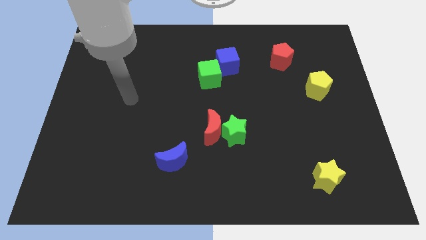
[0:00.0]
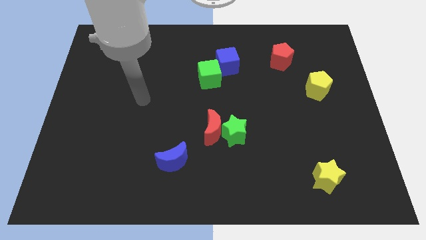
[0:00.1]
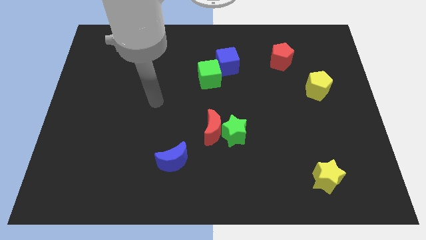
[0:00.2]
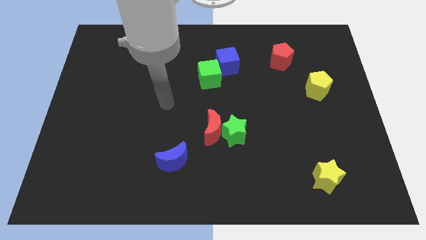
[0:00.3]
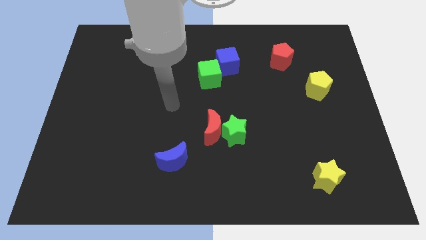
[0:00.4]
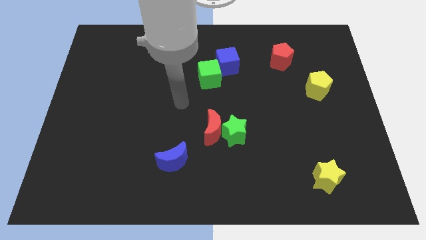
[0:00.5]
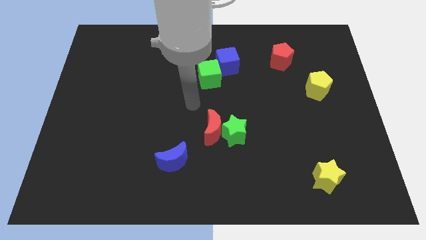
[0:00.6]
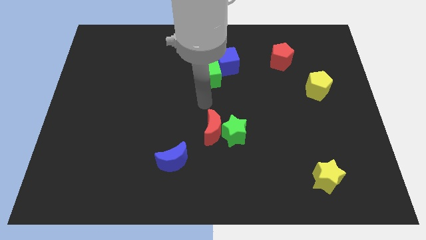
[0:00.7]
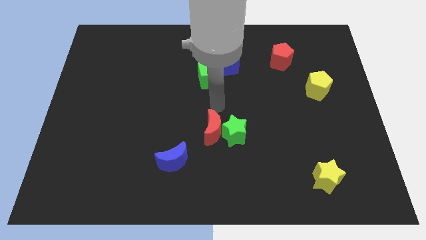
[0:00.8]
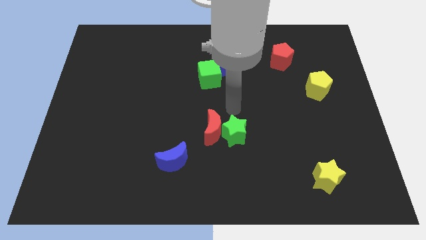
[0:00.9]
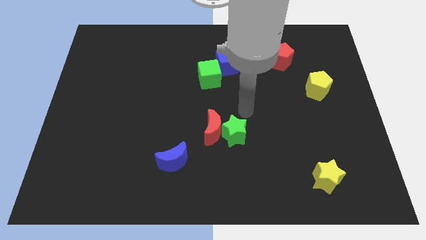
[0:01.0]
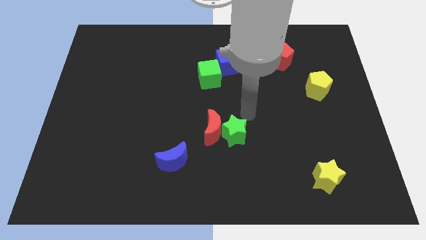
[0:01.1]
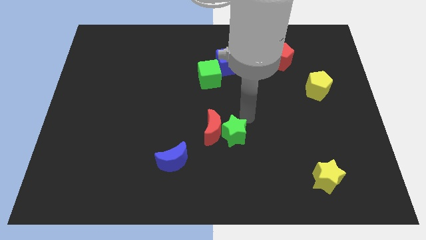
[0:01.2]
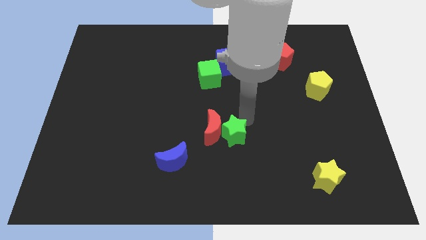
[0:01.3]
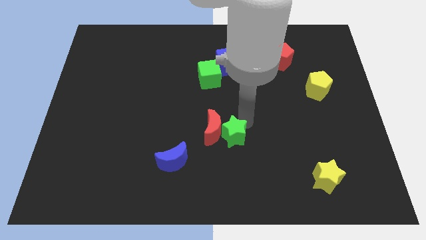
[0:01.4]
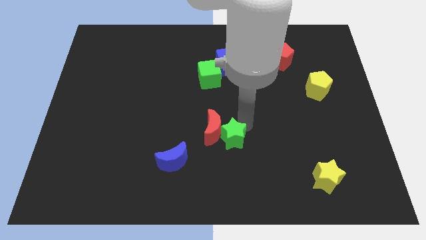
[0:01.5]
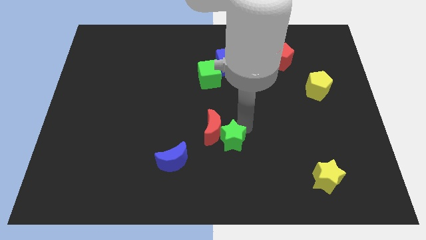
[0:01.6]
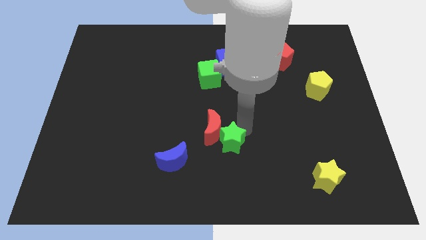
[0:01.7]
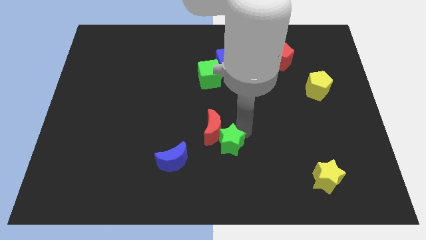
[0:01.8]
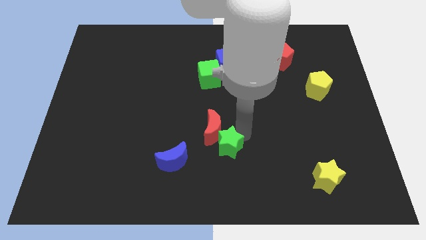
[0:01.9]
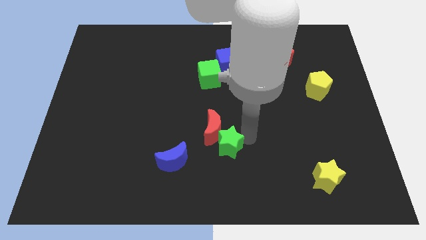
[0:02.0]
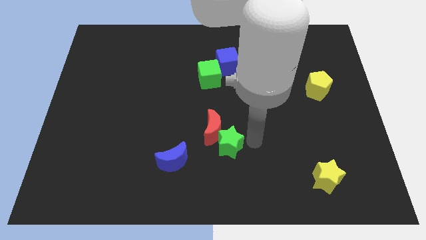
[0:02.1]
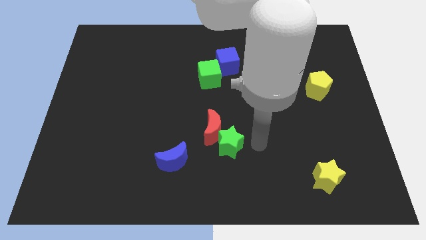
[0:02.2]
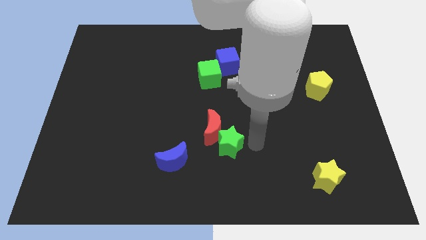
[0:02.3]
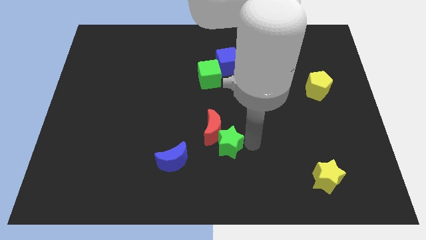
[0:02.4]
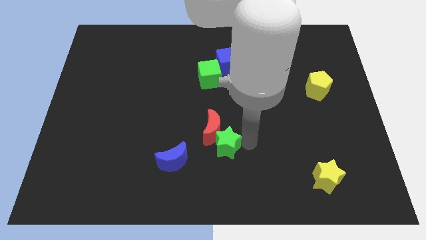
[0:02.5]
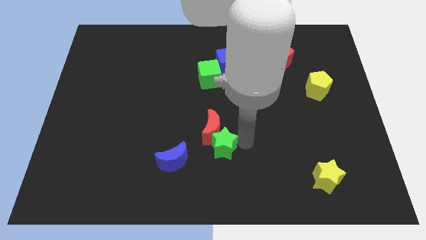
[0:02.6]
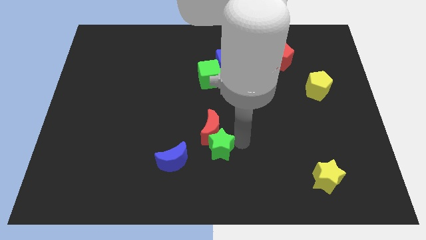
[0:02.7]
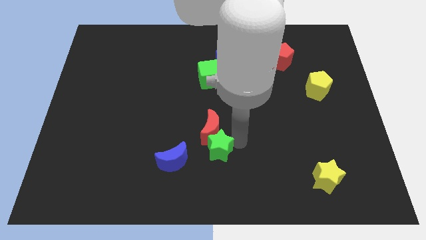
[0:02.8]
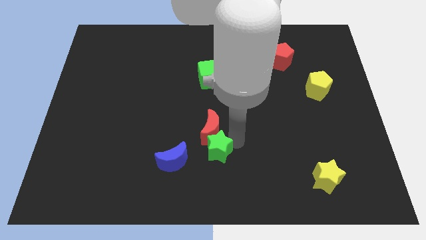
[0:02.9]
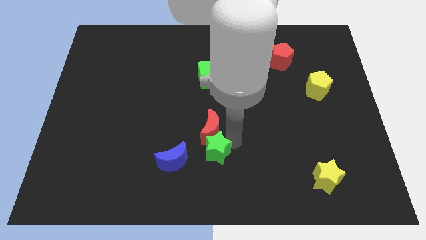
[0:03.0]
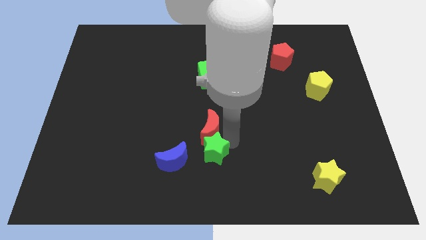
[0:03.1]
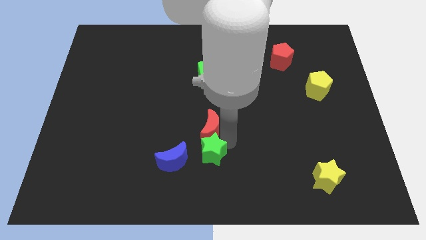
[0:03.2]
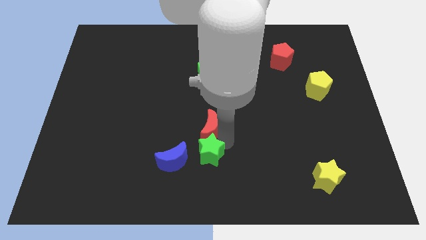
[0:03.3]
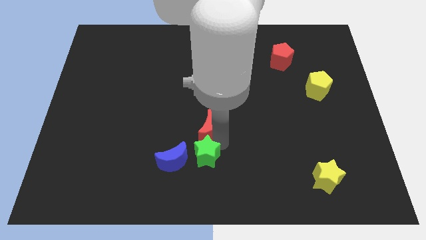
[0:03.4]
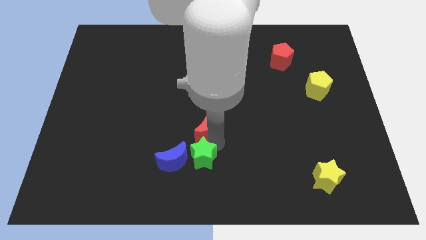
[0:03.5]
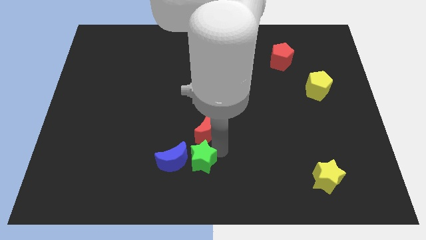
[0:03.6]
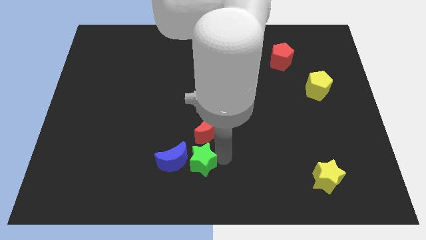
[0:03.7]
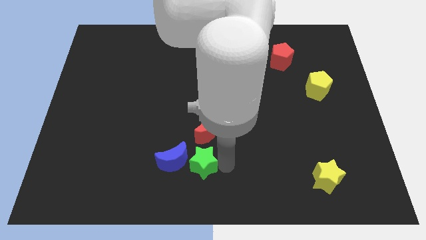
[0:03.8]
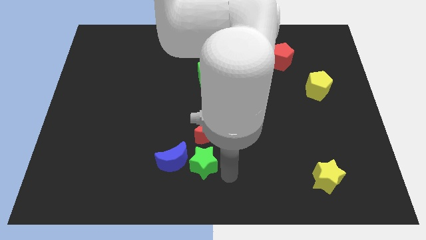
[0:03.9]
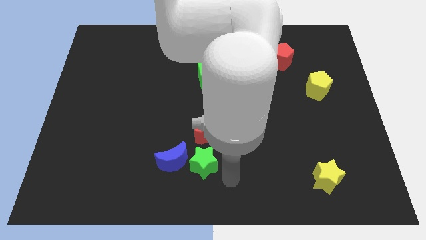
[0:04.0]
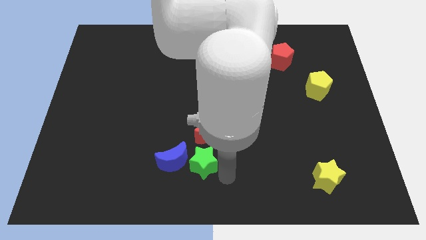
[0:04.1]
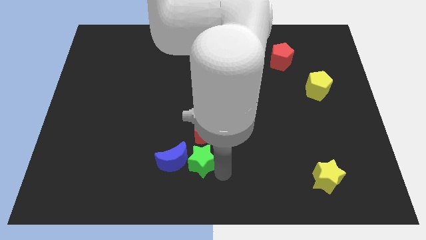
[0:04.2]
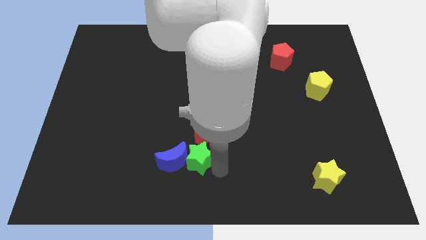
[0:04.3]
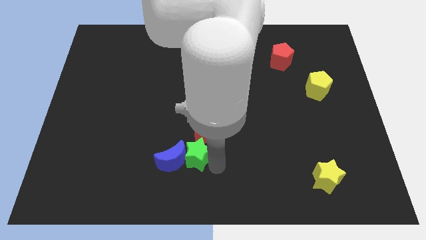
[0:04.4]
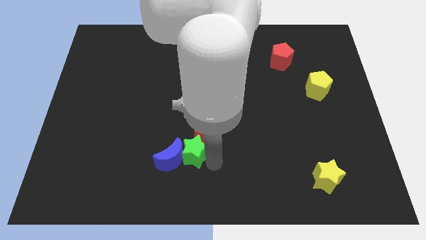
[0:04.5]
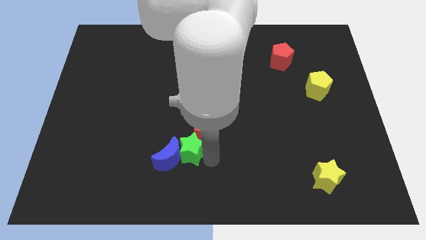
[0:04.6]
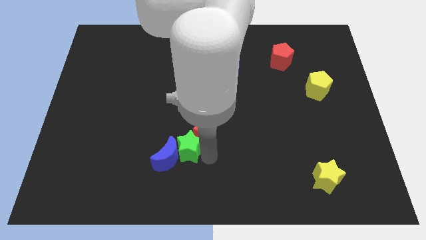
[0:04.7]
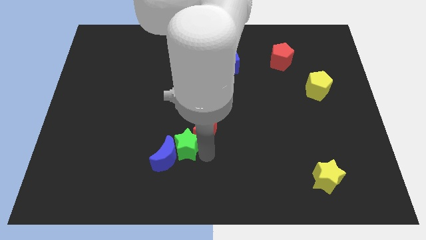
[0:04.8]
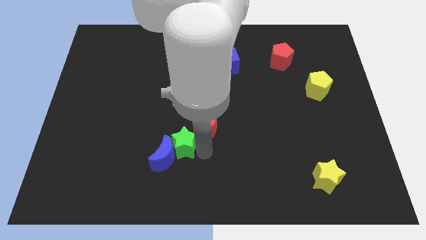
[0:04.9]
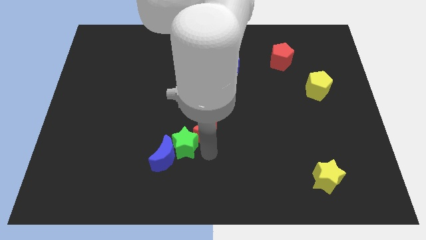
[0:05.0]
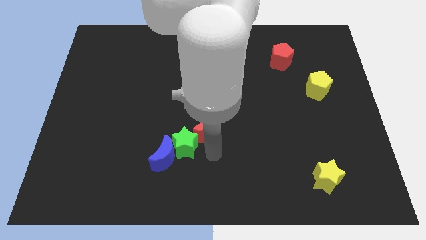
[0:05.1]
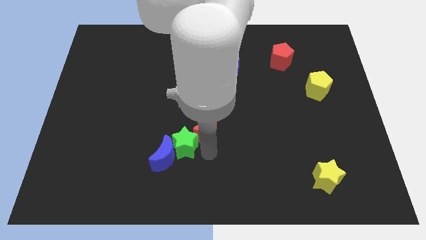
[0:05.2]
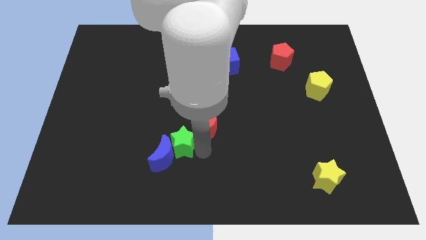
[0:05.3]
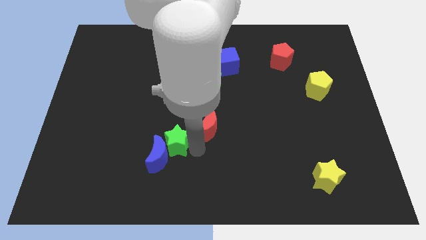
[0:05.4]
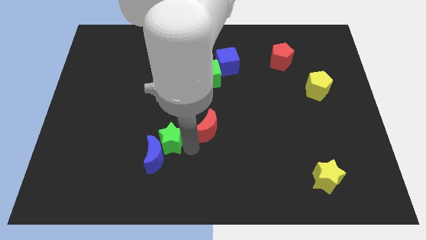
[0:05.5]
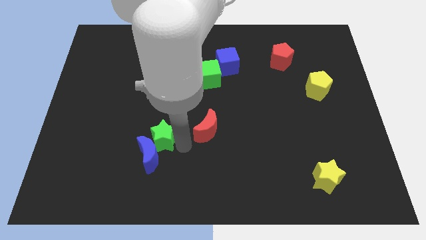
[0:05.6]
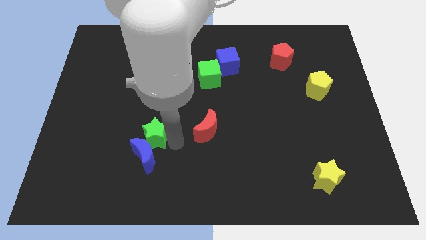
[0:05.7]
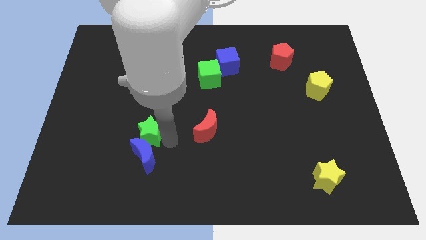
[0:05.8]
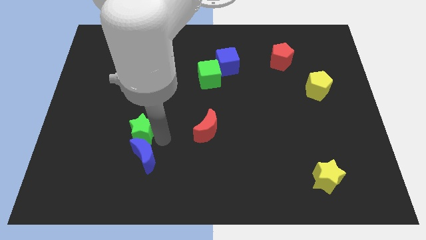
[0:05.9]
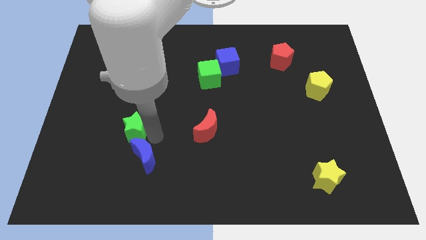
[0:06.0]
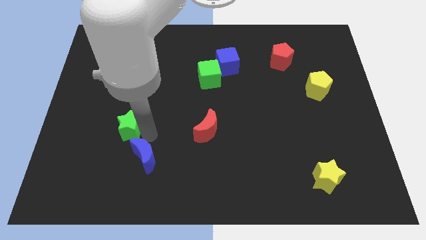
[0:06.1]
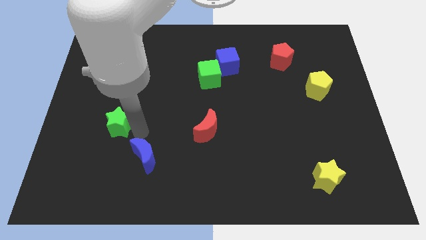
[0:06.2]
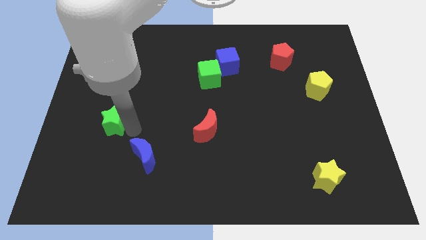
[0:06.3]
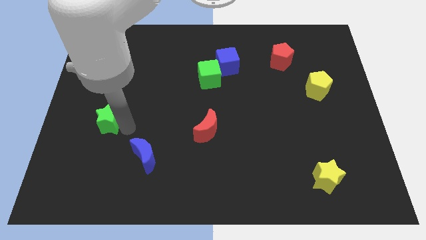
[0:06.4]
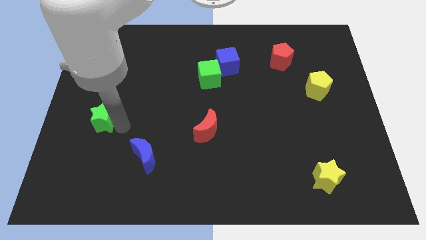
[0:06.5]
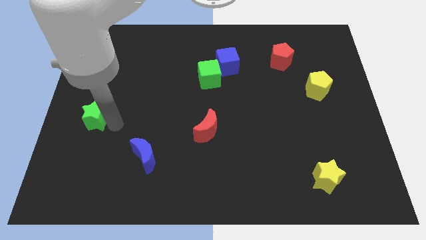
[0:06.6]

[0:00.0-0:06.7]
slide the green star to the left side

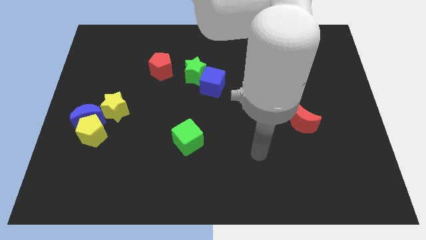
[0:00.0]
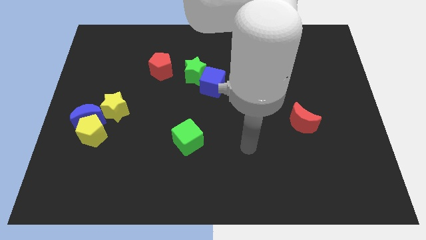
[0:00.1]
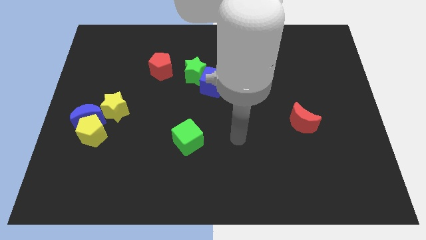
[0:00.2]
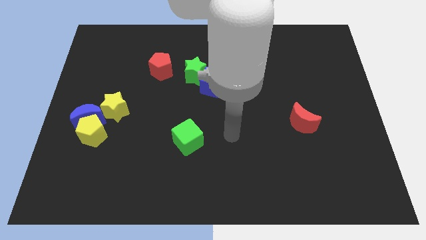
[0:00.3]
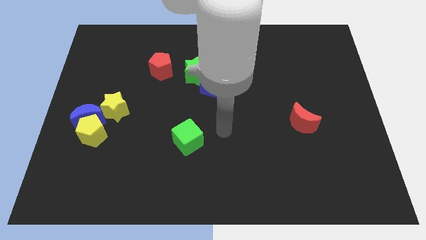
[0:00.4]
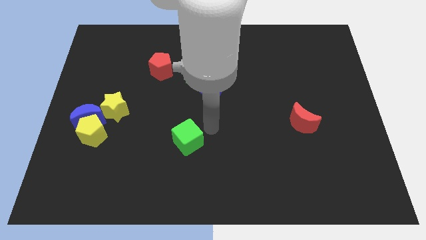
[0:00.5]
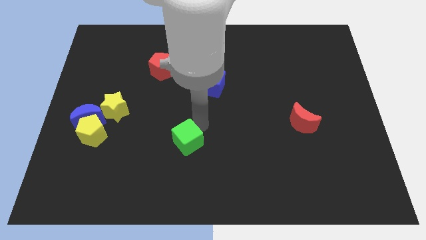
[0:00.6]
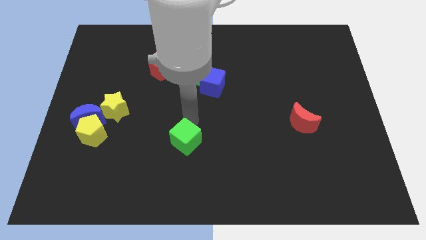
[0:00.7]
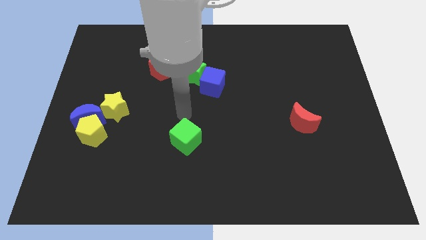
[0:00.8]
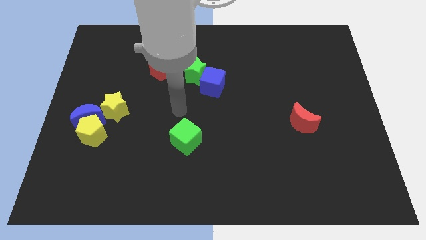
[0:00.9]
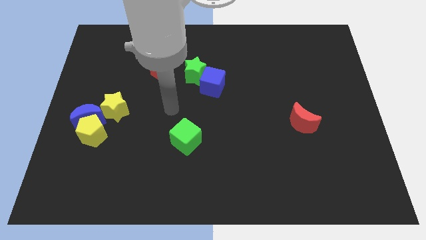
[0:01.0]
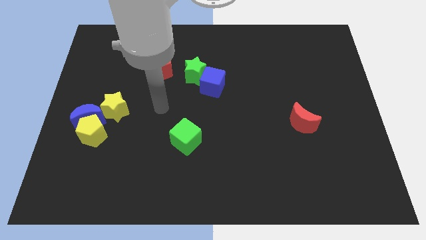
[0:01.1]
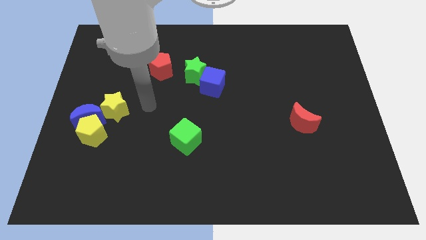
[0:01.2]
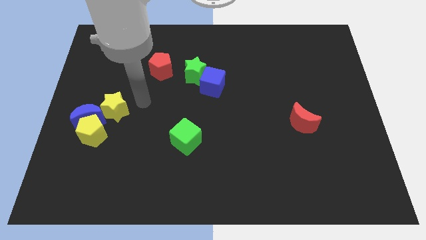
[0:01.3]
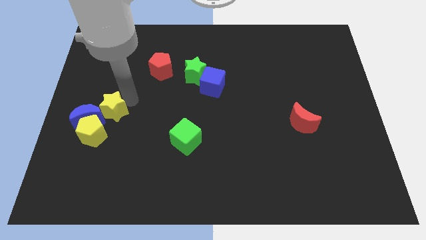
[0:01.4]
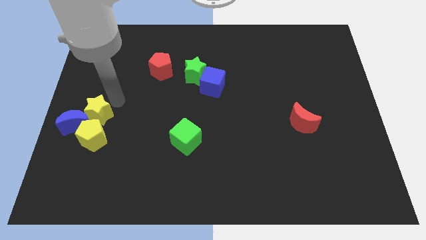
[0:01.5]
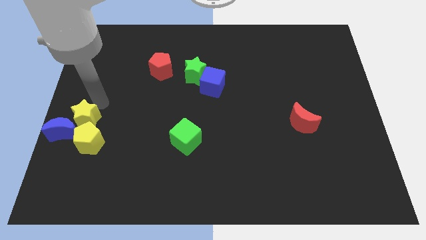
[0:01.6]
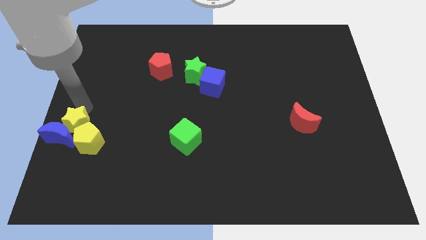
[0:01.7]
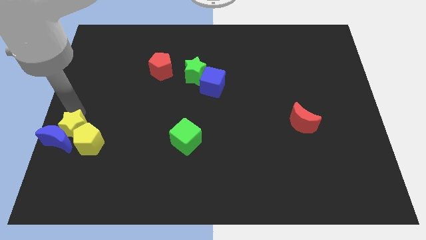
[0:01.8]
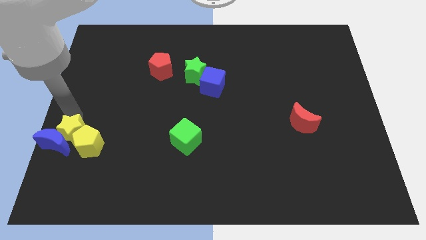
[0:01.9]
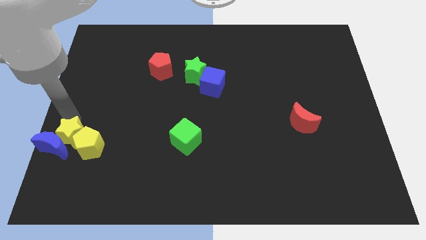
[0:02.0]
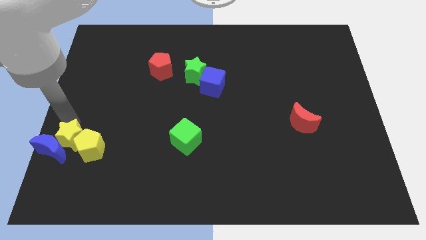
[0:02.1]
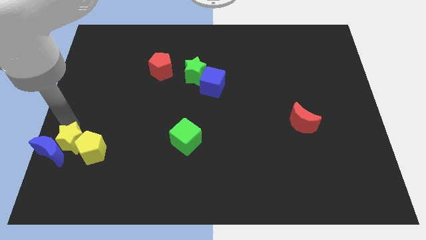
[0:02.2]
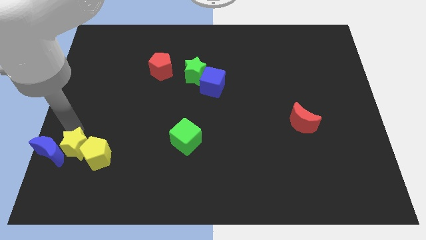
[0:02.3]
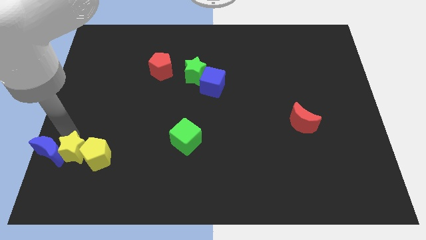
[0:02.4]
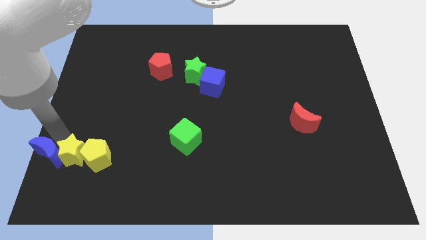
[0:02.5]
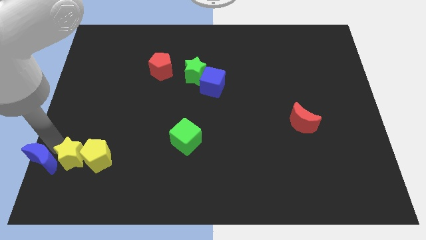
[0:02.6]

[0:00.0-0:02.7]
slide the blue moon to the bottom left corner
